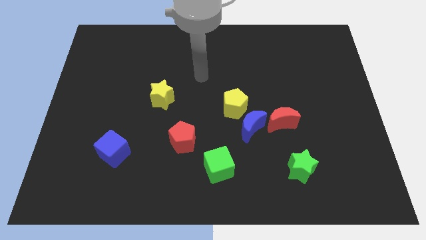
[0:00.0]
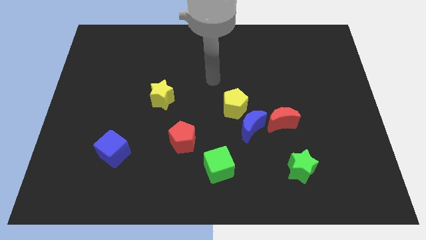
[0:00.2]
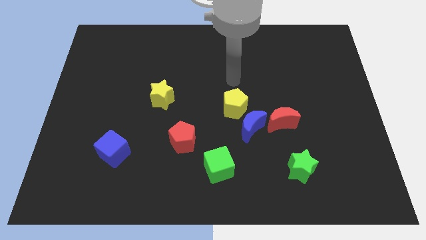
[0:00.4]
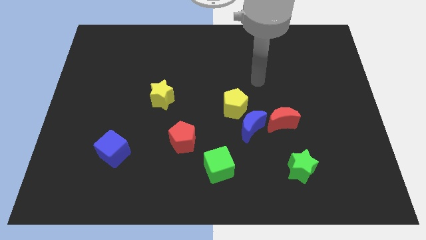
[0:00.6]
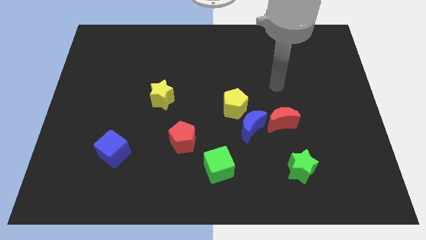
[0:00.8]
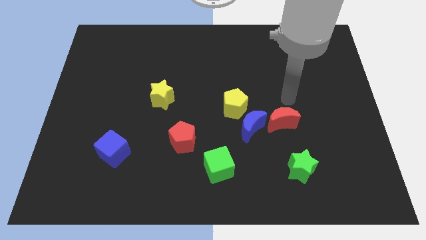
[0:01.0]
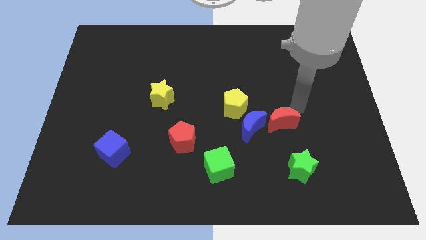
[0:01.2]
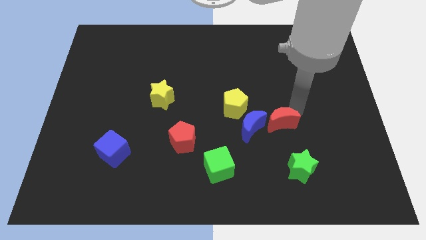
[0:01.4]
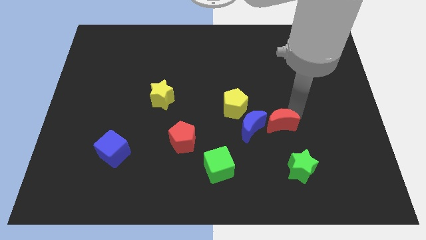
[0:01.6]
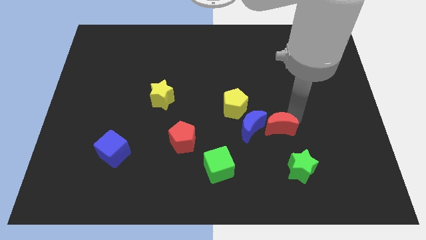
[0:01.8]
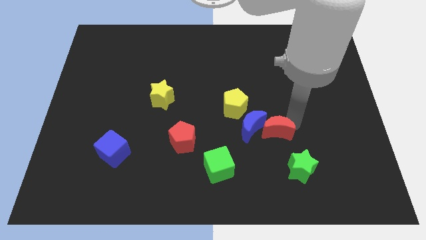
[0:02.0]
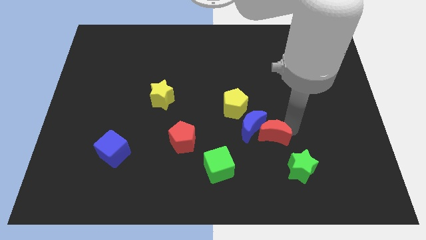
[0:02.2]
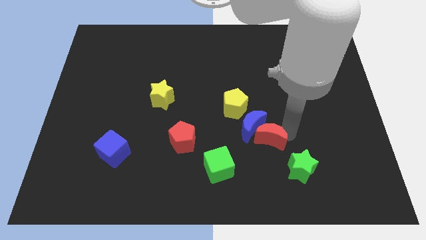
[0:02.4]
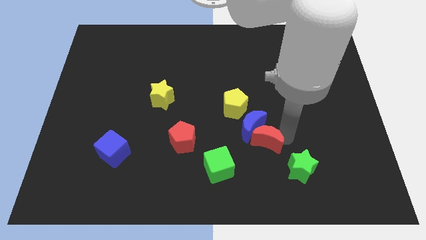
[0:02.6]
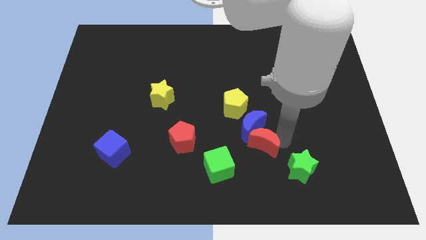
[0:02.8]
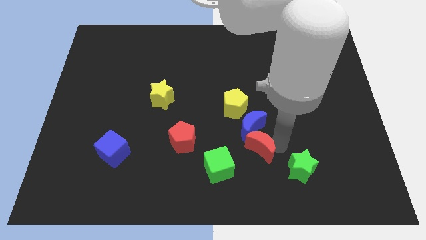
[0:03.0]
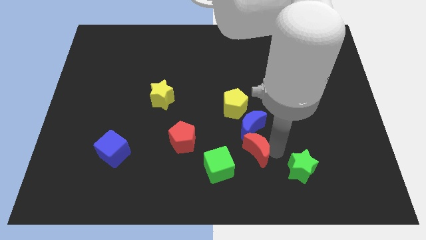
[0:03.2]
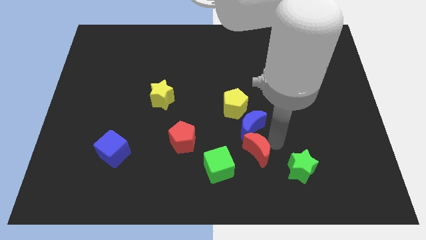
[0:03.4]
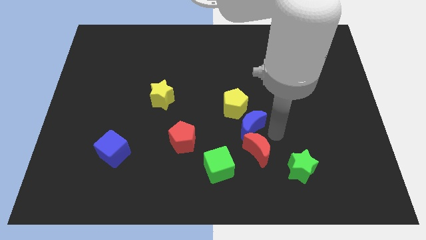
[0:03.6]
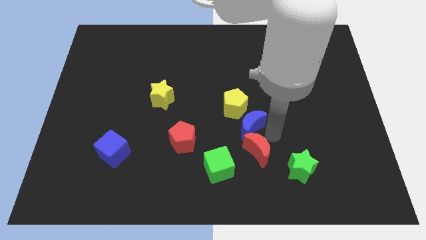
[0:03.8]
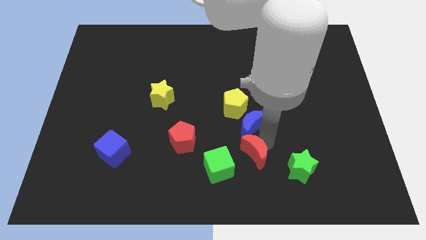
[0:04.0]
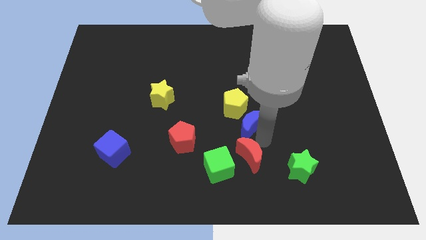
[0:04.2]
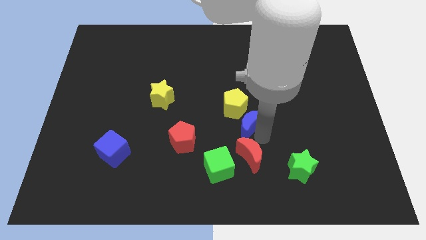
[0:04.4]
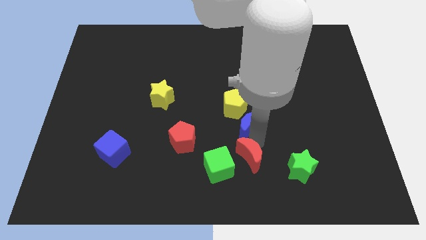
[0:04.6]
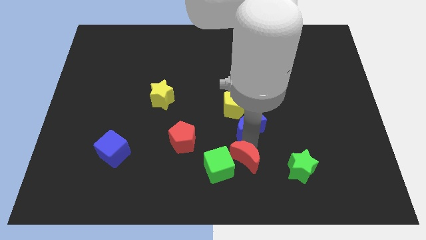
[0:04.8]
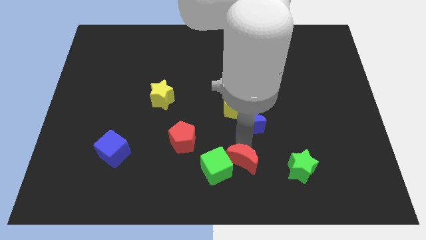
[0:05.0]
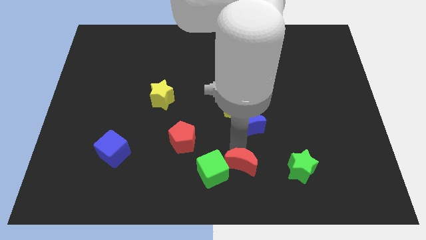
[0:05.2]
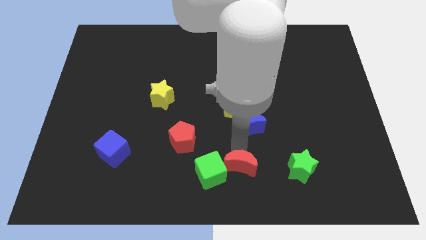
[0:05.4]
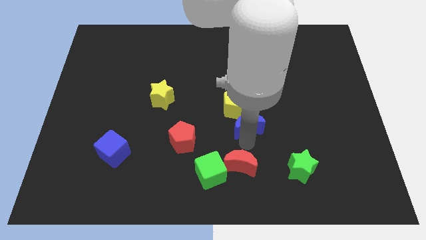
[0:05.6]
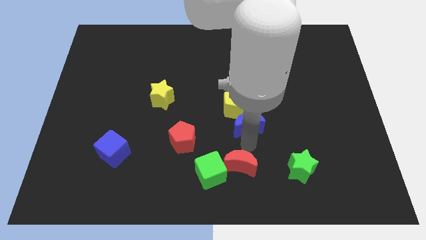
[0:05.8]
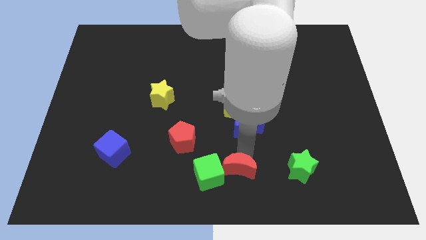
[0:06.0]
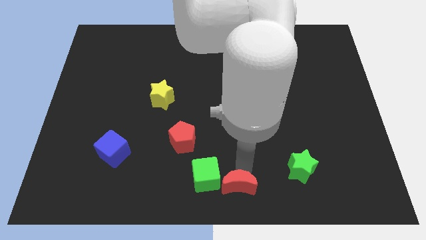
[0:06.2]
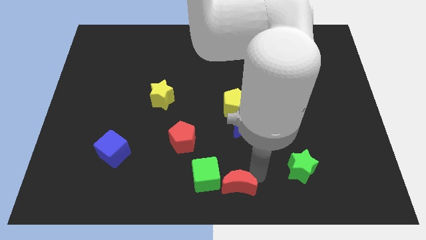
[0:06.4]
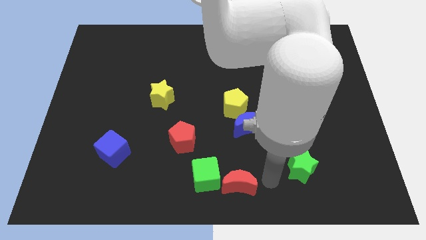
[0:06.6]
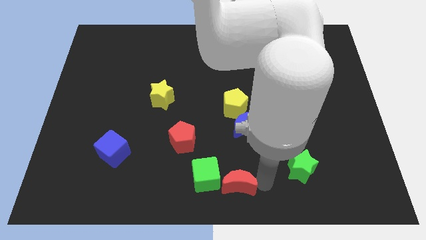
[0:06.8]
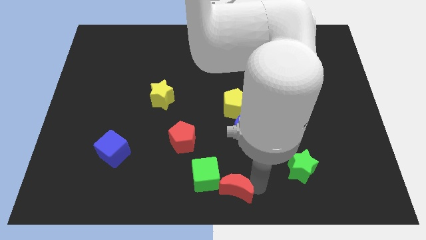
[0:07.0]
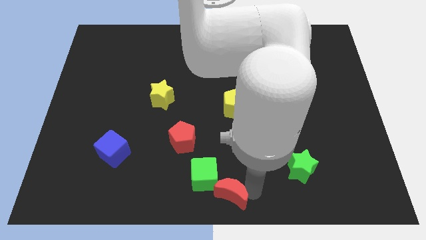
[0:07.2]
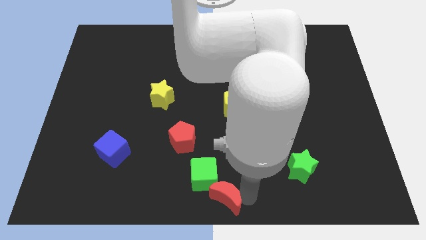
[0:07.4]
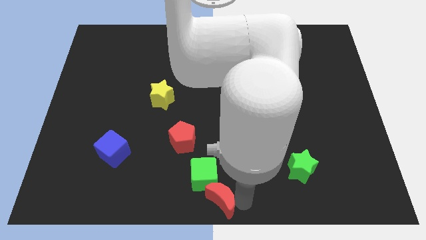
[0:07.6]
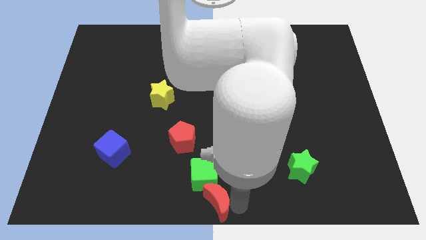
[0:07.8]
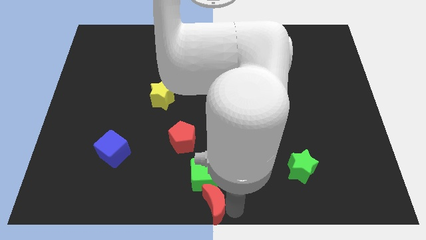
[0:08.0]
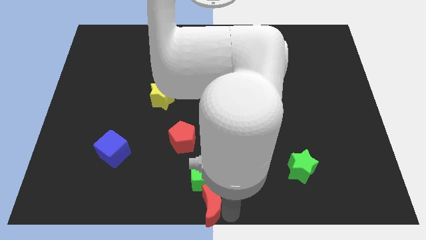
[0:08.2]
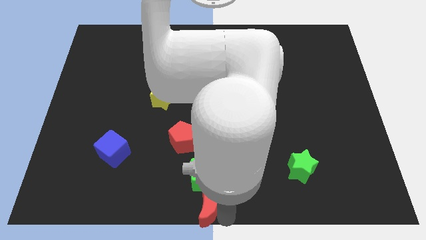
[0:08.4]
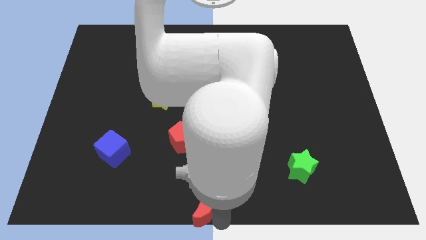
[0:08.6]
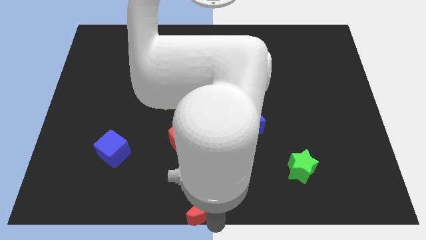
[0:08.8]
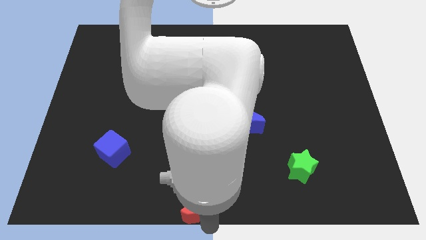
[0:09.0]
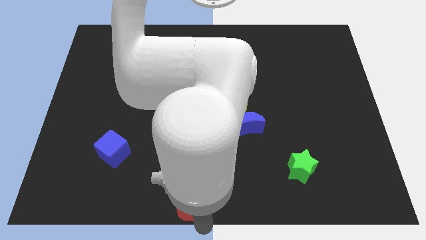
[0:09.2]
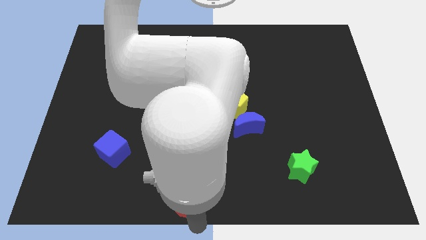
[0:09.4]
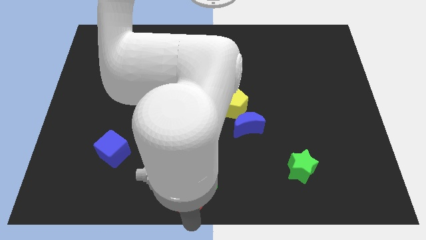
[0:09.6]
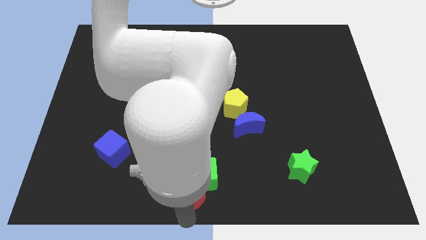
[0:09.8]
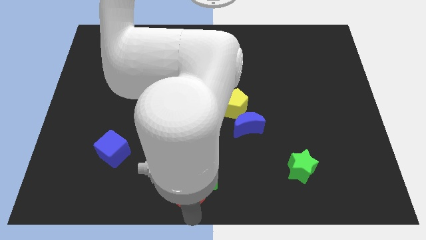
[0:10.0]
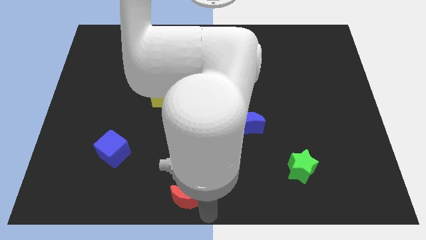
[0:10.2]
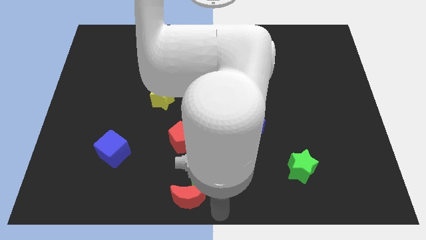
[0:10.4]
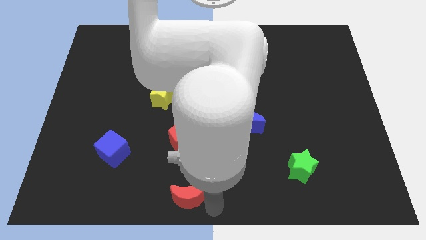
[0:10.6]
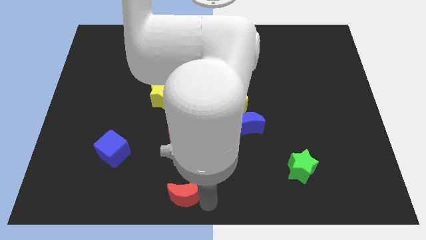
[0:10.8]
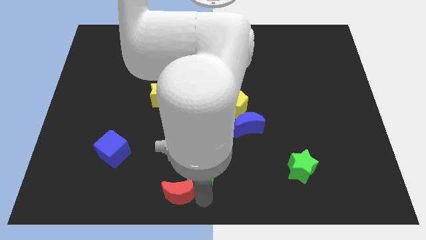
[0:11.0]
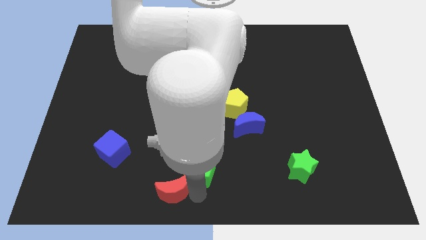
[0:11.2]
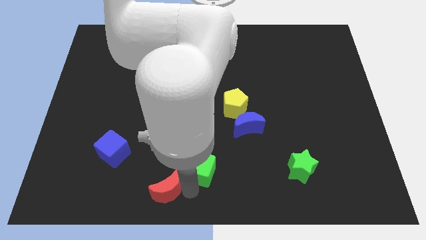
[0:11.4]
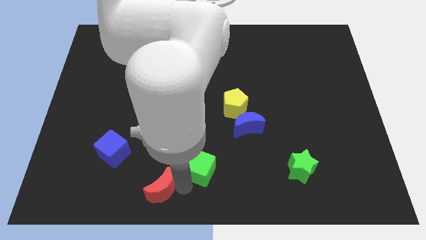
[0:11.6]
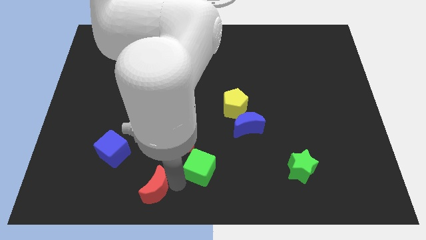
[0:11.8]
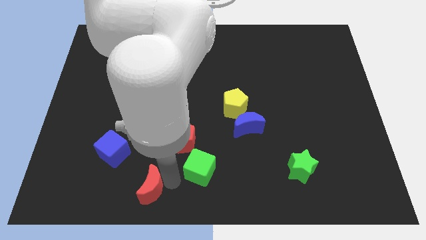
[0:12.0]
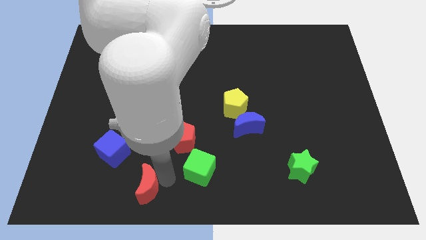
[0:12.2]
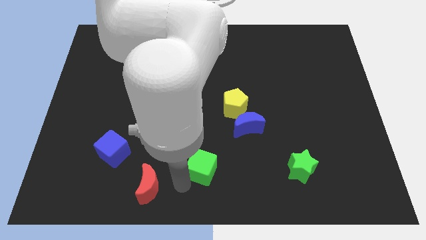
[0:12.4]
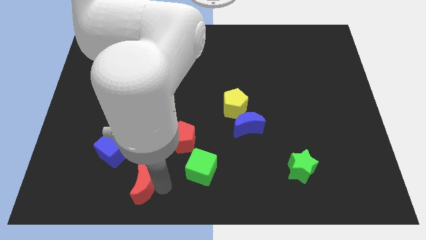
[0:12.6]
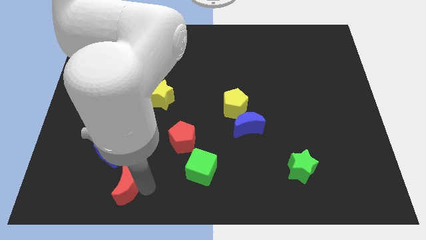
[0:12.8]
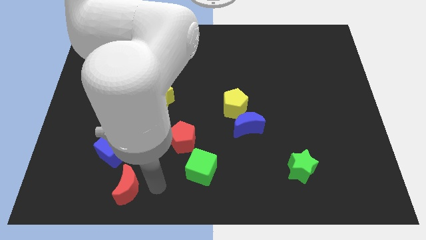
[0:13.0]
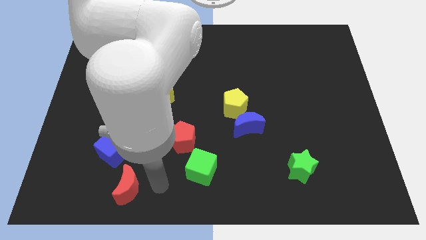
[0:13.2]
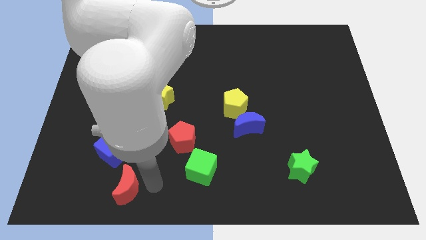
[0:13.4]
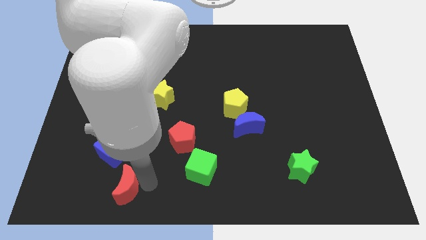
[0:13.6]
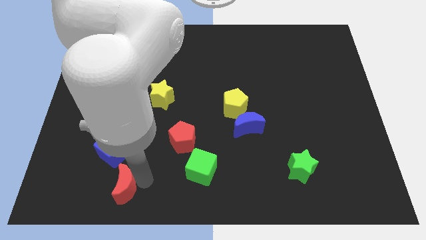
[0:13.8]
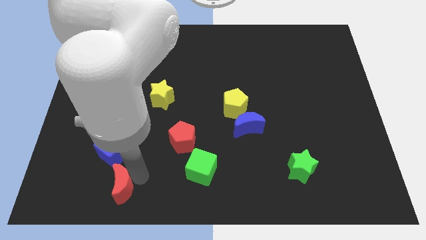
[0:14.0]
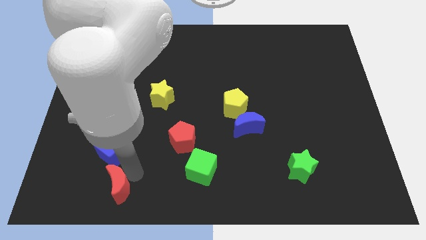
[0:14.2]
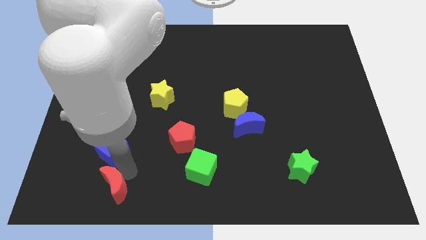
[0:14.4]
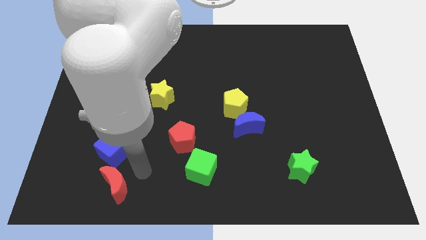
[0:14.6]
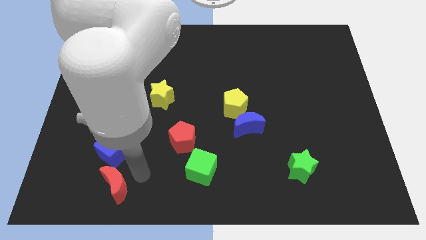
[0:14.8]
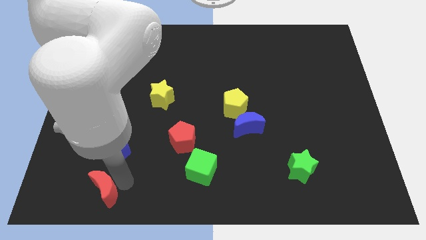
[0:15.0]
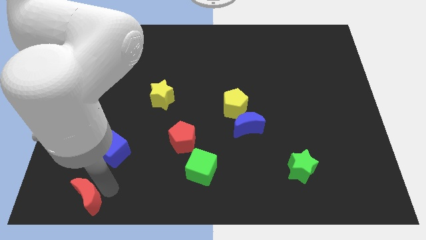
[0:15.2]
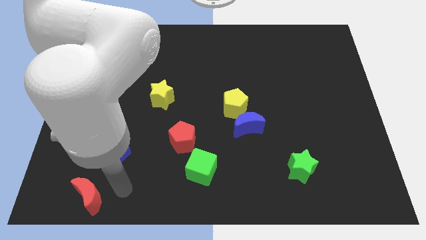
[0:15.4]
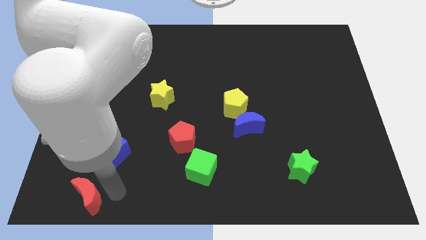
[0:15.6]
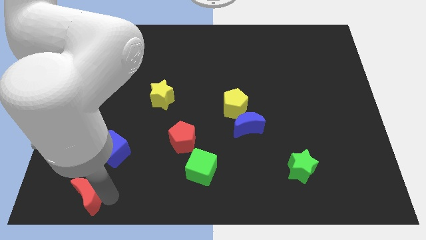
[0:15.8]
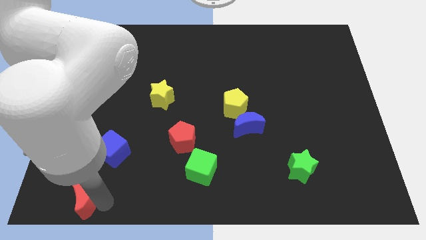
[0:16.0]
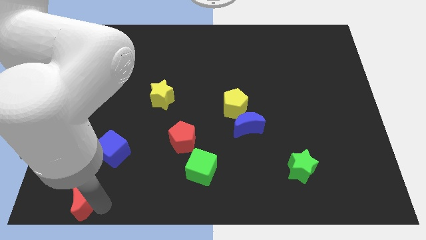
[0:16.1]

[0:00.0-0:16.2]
move the red moon to the bottom left
